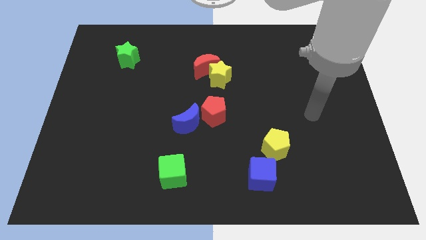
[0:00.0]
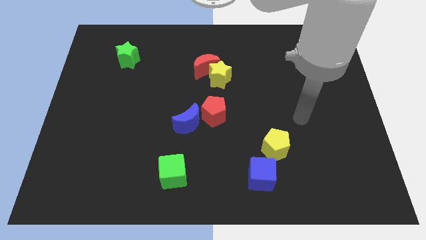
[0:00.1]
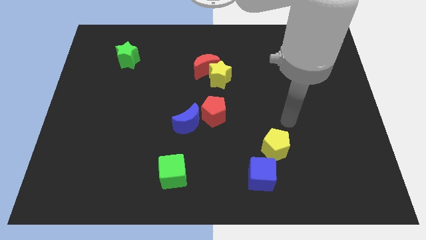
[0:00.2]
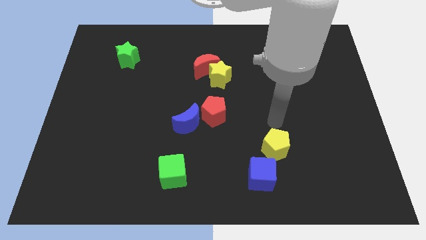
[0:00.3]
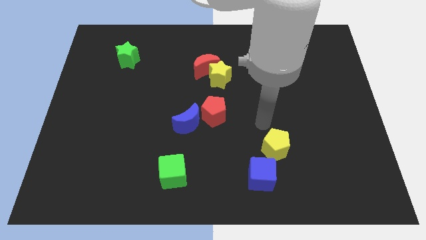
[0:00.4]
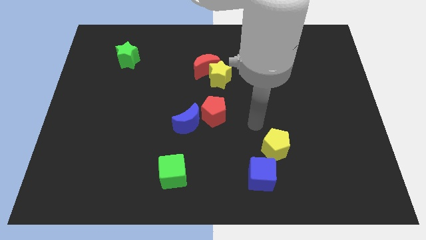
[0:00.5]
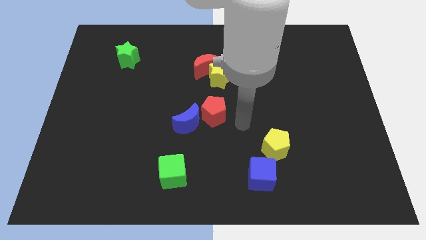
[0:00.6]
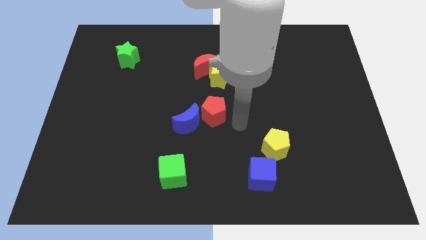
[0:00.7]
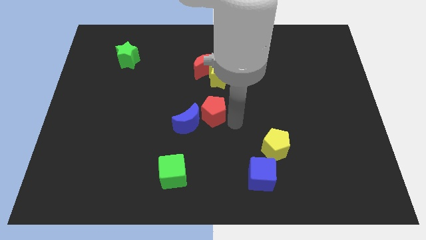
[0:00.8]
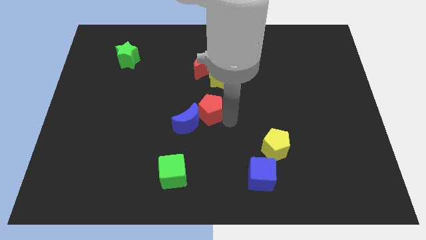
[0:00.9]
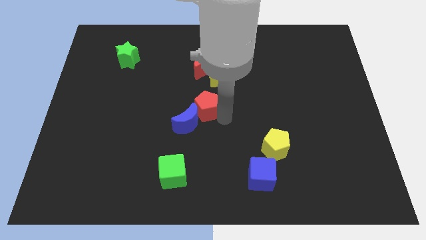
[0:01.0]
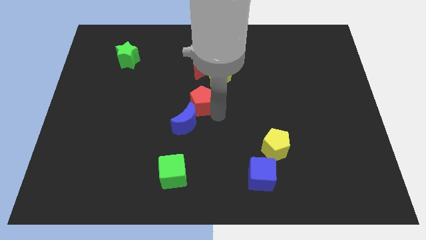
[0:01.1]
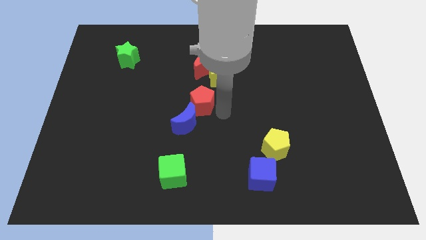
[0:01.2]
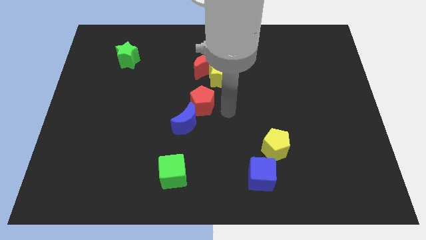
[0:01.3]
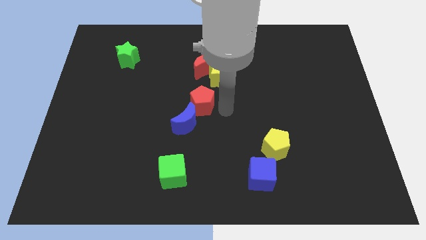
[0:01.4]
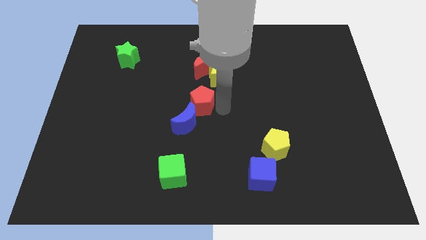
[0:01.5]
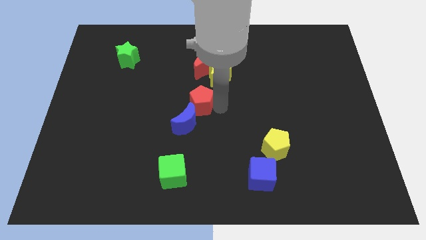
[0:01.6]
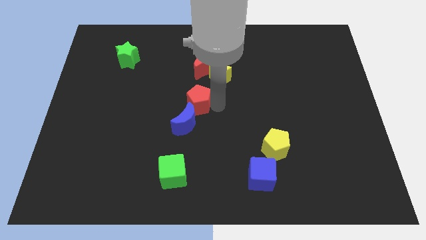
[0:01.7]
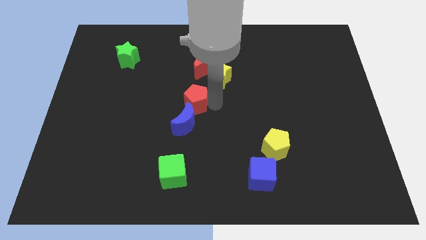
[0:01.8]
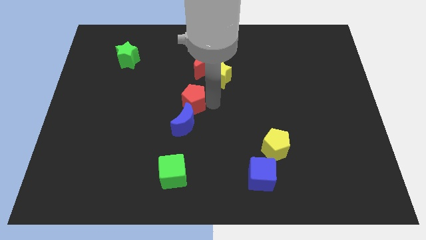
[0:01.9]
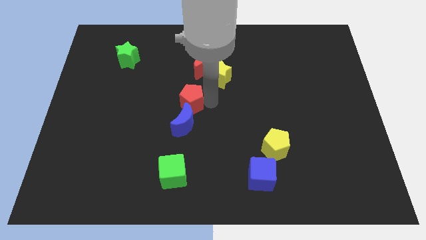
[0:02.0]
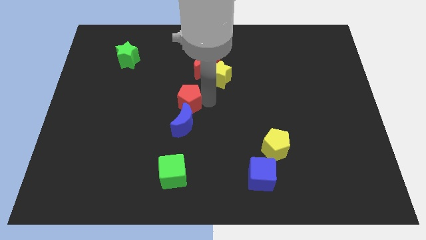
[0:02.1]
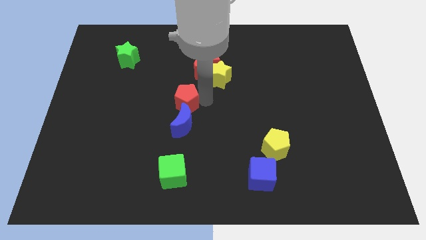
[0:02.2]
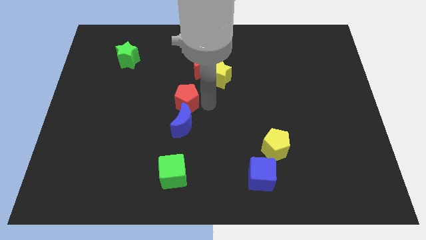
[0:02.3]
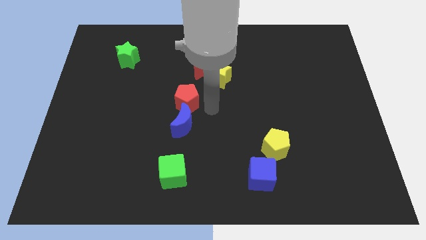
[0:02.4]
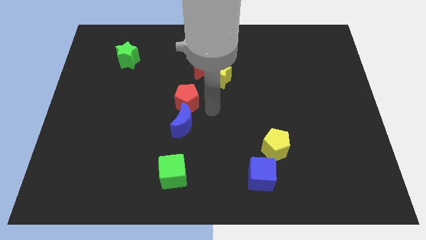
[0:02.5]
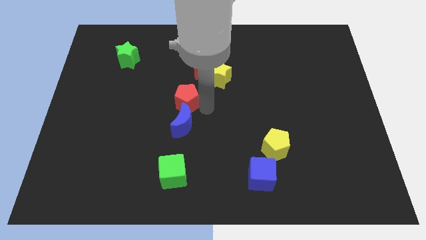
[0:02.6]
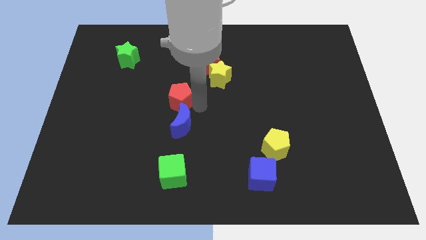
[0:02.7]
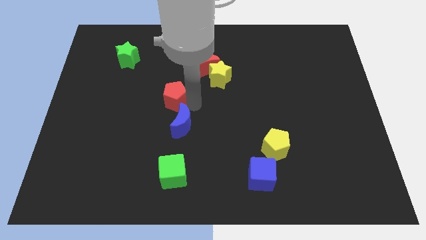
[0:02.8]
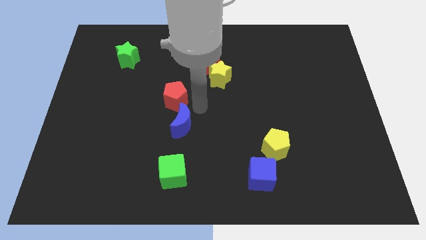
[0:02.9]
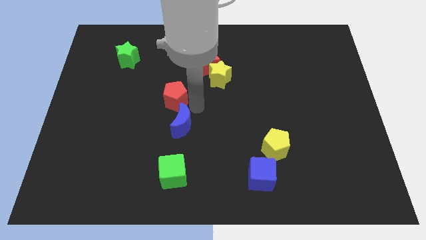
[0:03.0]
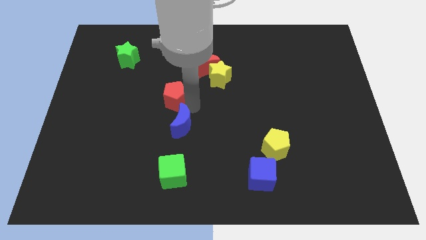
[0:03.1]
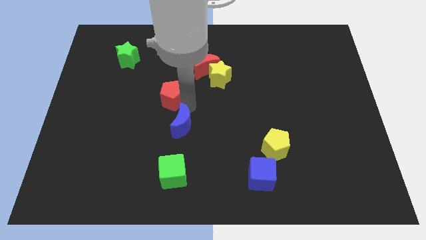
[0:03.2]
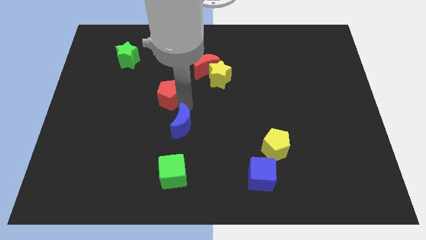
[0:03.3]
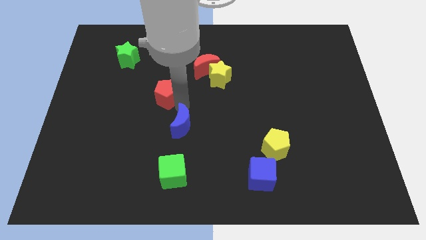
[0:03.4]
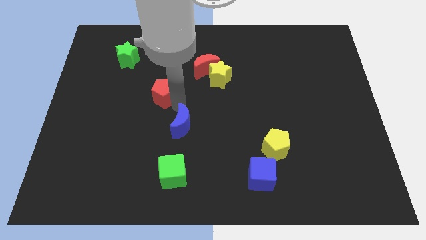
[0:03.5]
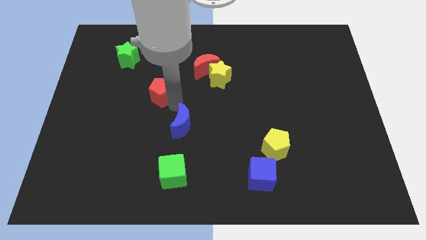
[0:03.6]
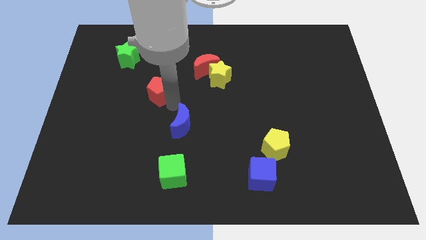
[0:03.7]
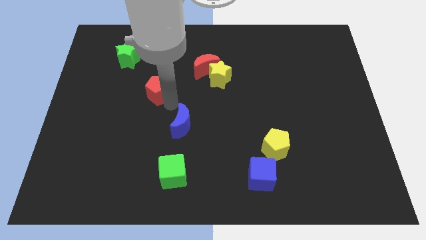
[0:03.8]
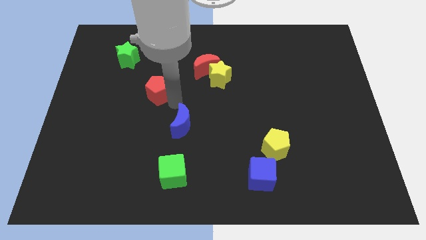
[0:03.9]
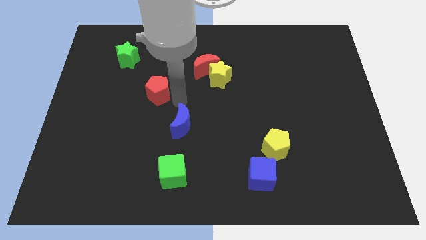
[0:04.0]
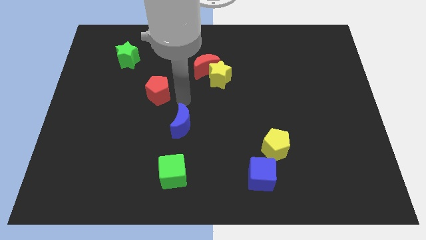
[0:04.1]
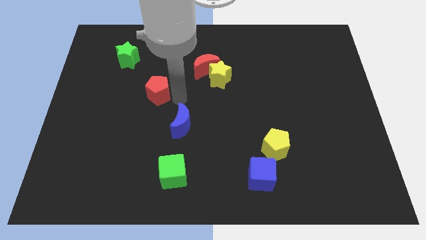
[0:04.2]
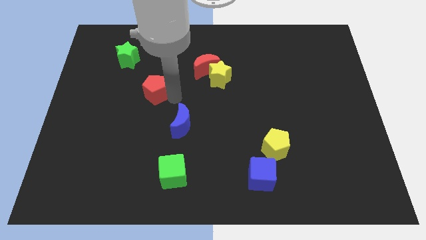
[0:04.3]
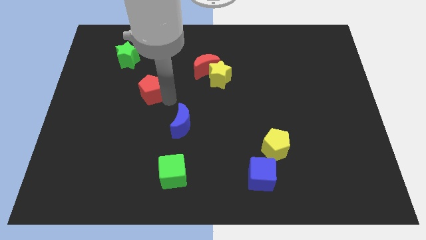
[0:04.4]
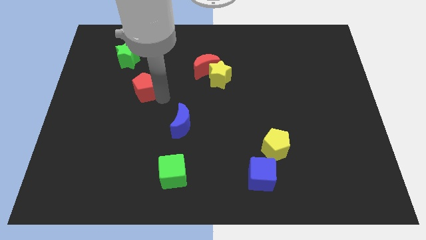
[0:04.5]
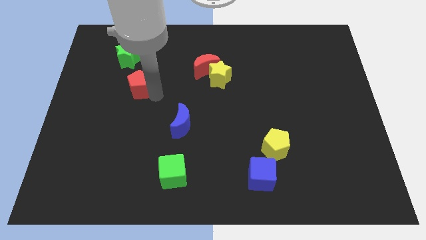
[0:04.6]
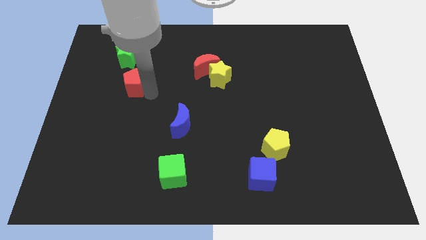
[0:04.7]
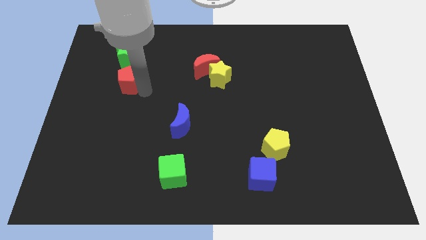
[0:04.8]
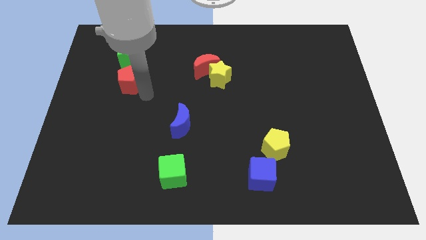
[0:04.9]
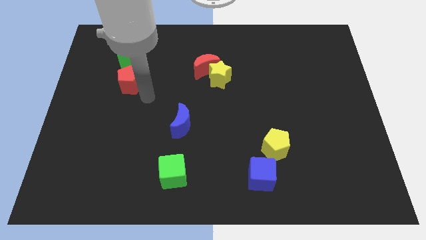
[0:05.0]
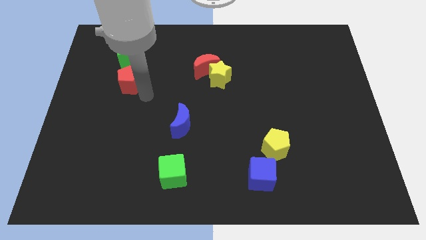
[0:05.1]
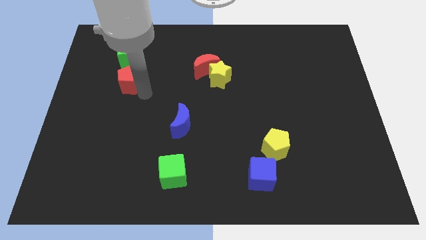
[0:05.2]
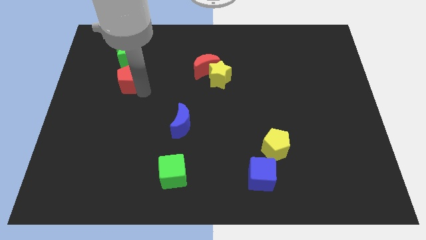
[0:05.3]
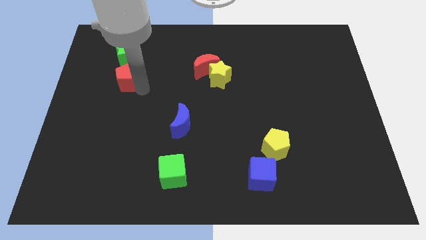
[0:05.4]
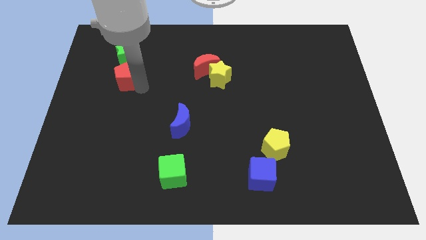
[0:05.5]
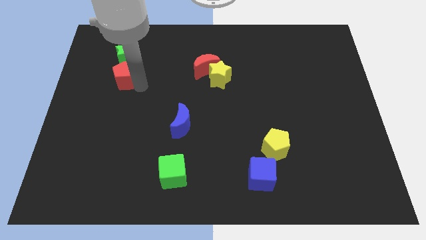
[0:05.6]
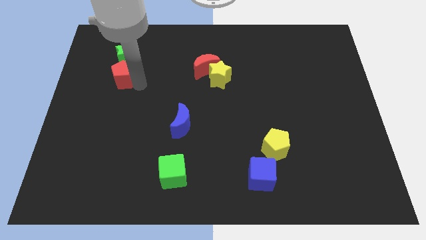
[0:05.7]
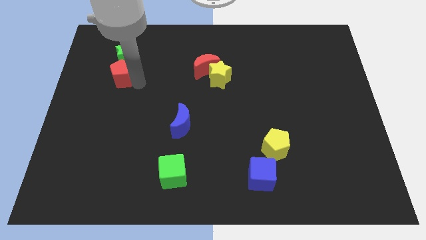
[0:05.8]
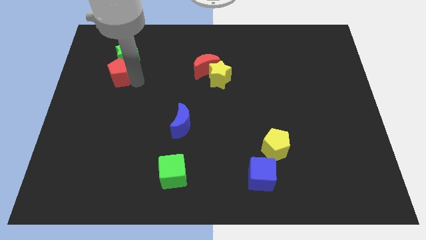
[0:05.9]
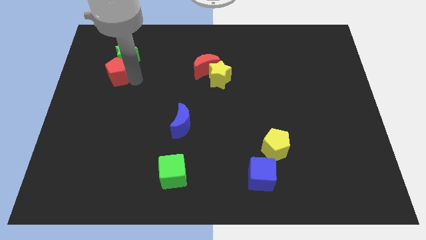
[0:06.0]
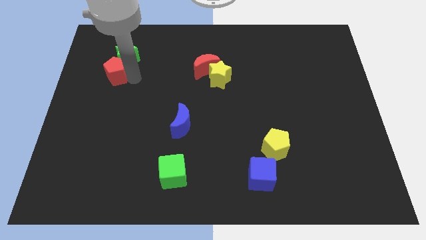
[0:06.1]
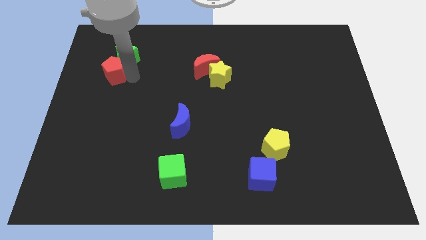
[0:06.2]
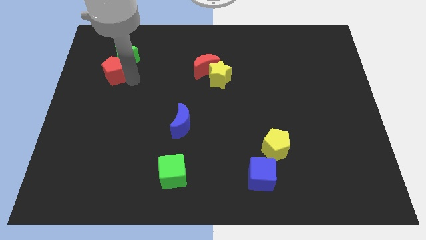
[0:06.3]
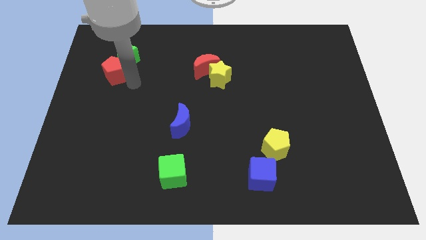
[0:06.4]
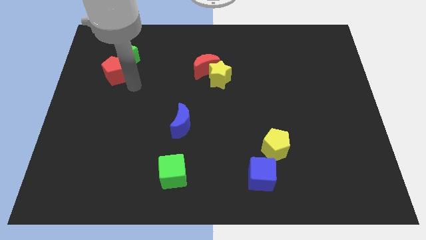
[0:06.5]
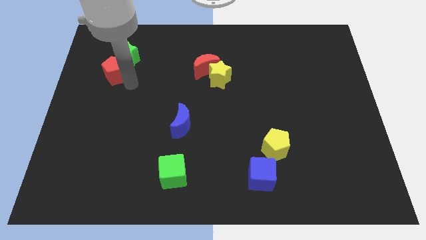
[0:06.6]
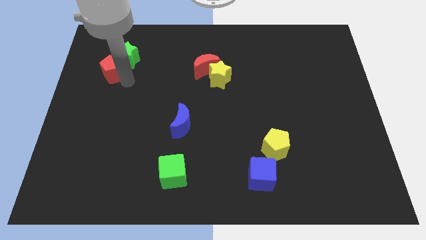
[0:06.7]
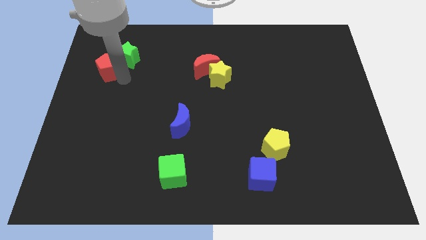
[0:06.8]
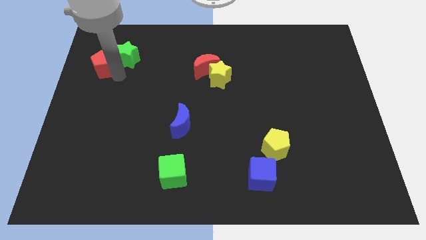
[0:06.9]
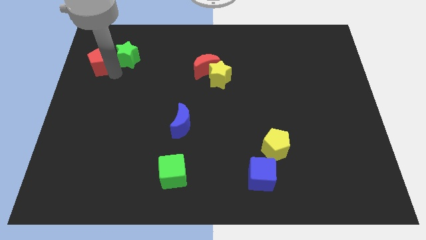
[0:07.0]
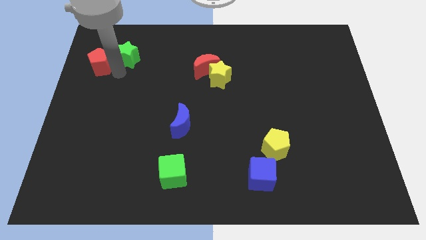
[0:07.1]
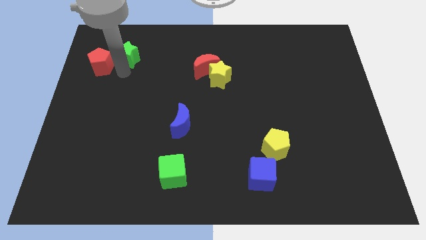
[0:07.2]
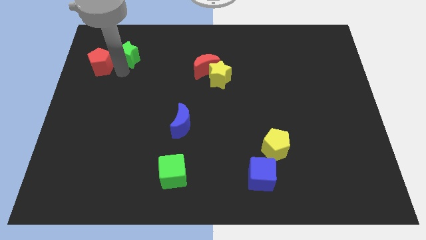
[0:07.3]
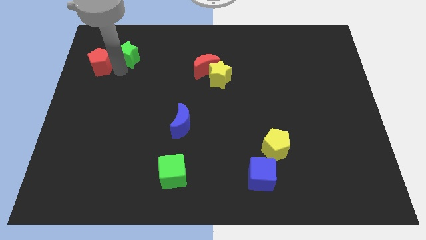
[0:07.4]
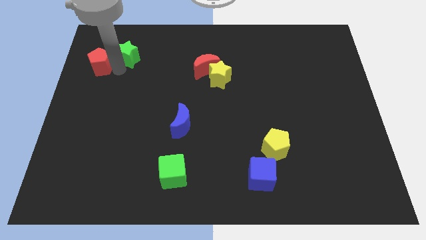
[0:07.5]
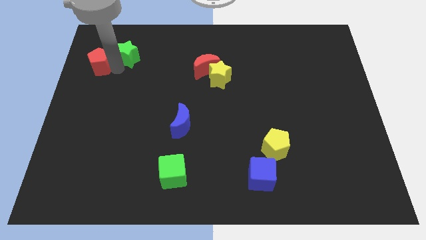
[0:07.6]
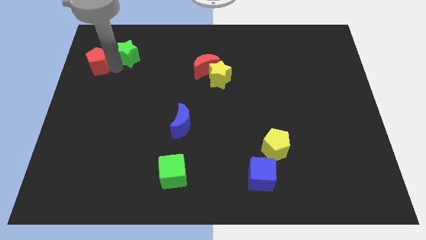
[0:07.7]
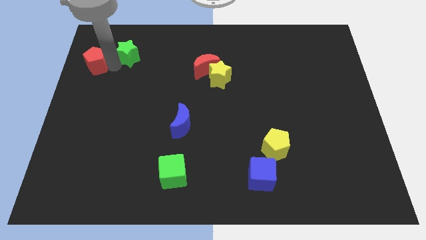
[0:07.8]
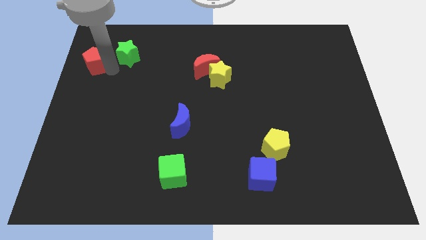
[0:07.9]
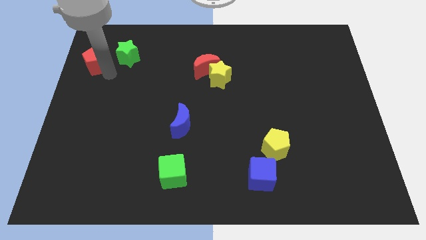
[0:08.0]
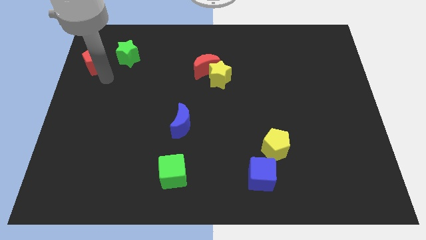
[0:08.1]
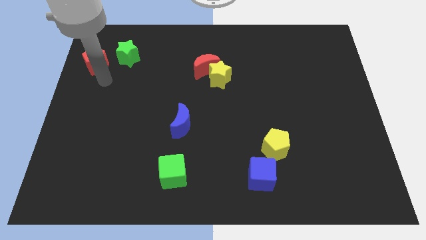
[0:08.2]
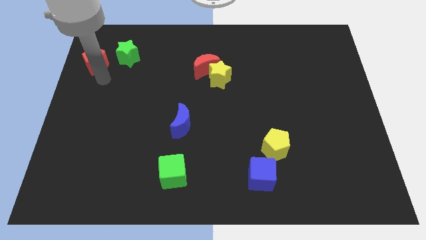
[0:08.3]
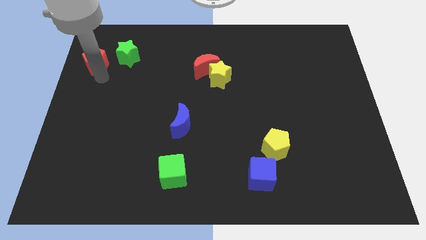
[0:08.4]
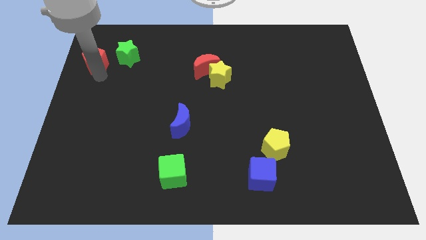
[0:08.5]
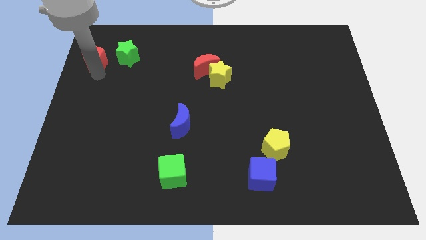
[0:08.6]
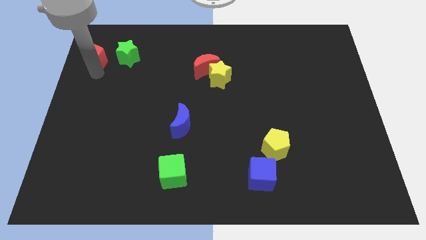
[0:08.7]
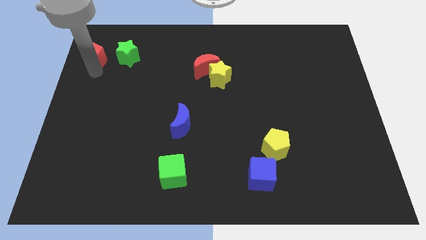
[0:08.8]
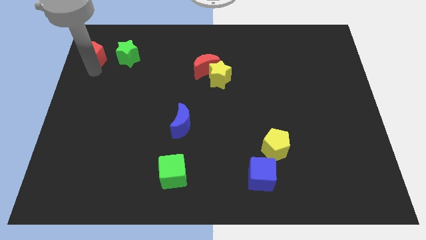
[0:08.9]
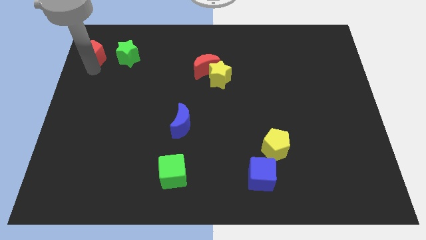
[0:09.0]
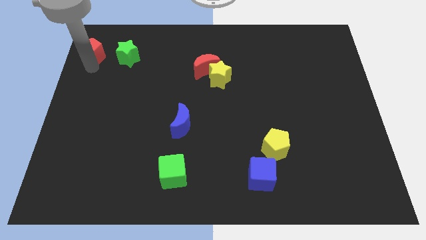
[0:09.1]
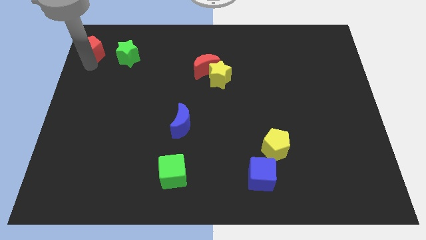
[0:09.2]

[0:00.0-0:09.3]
slide the red pentagon to the top left
